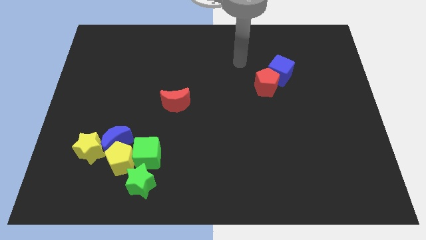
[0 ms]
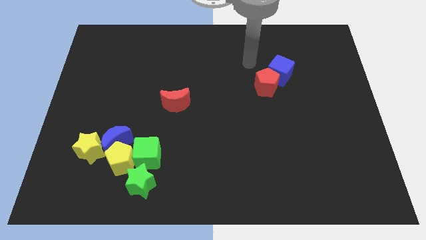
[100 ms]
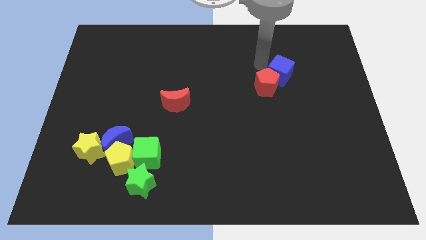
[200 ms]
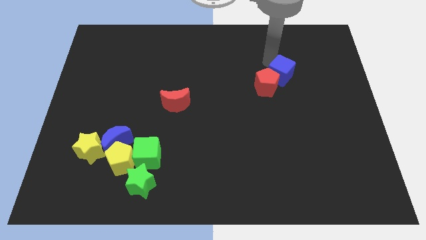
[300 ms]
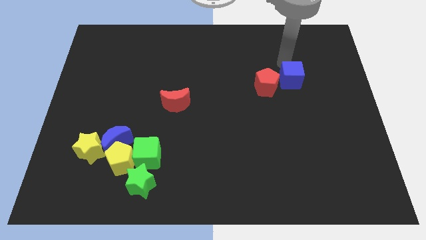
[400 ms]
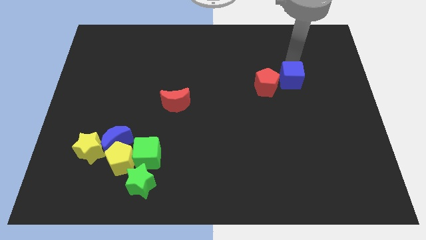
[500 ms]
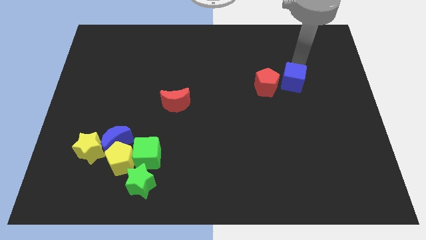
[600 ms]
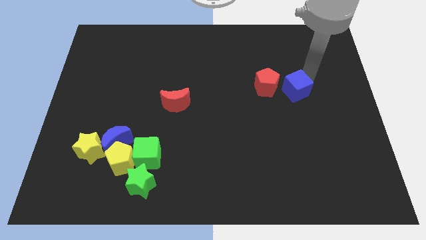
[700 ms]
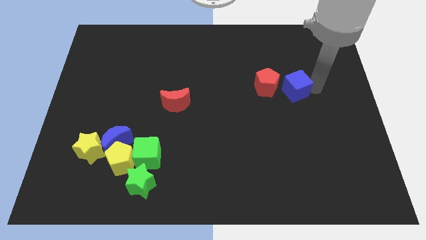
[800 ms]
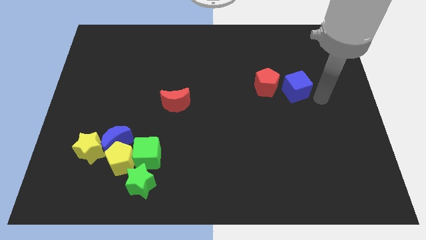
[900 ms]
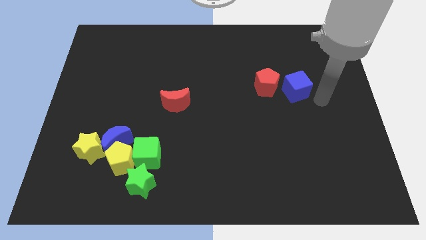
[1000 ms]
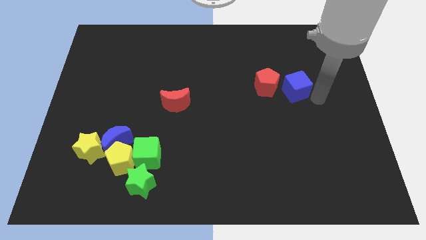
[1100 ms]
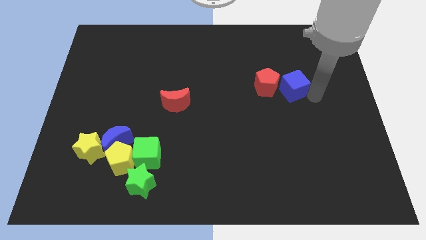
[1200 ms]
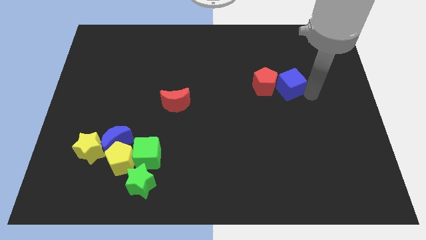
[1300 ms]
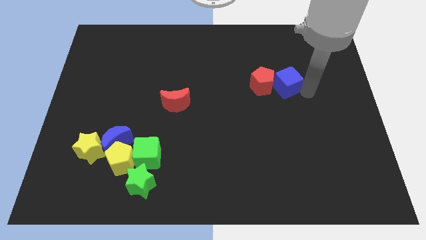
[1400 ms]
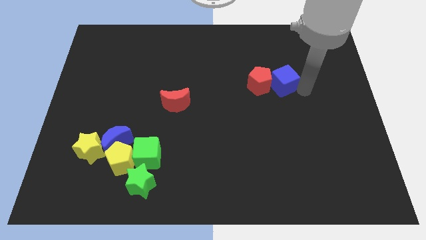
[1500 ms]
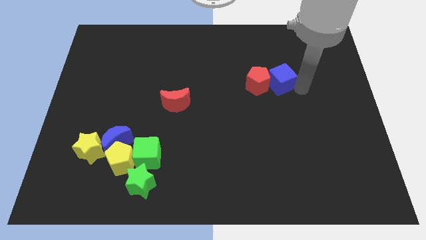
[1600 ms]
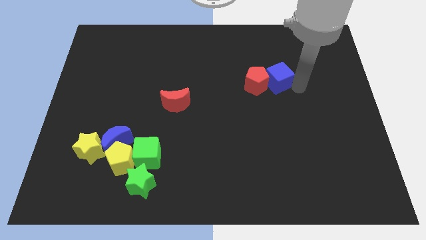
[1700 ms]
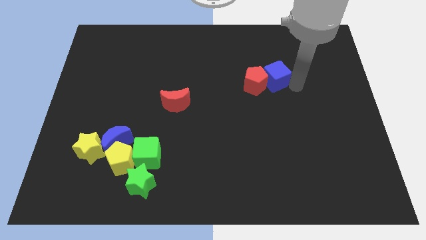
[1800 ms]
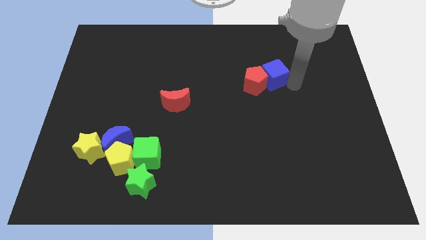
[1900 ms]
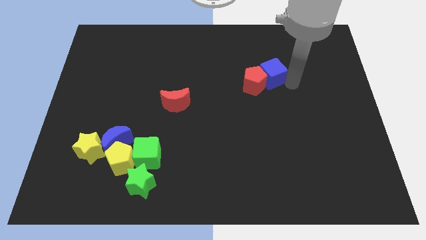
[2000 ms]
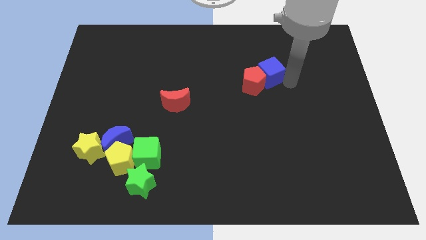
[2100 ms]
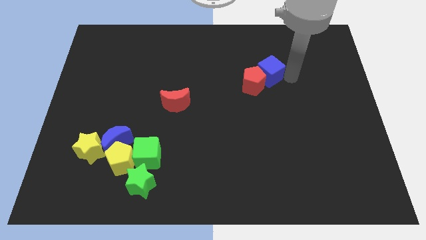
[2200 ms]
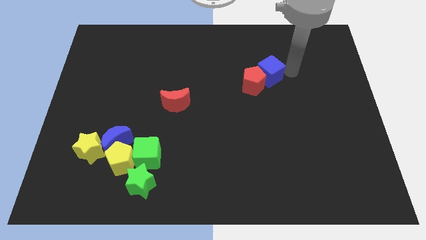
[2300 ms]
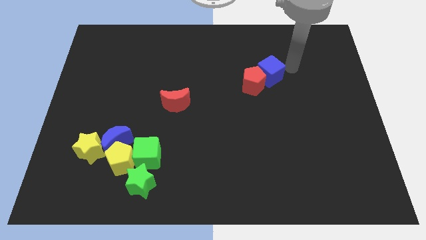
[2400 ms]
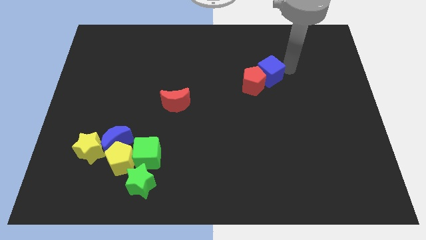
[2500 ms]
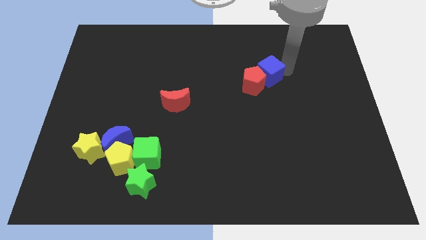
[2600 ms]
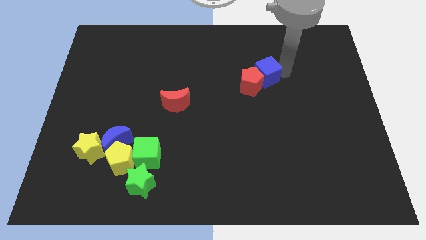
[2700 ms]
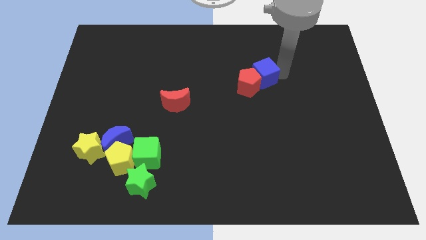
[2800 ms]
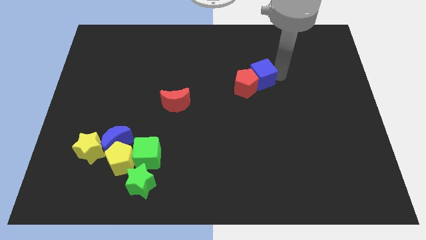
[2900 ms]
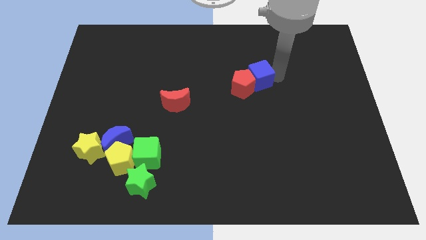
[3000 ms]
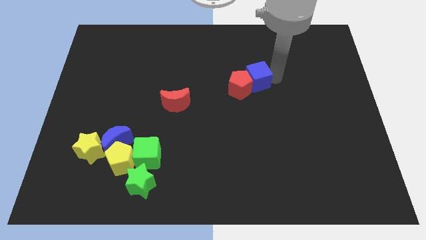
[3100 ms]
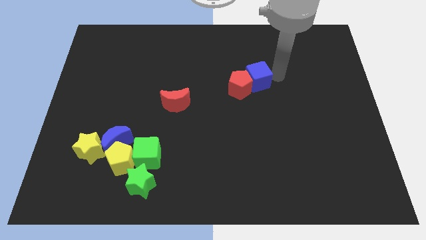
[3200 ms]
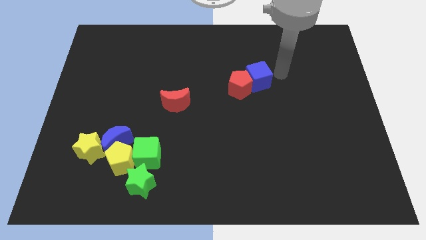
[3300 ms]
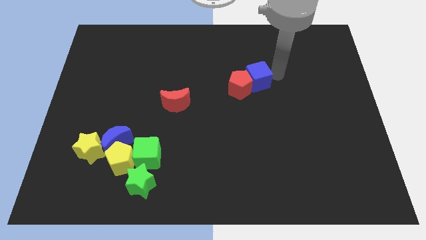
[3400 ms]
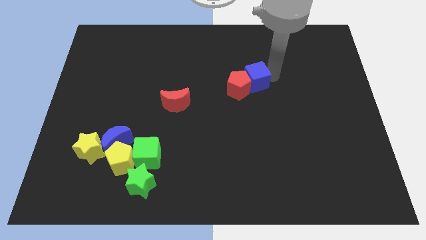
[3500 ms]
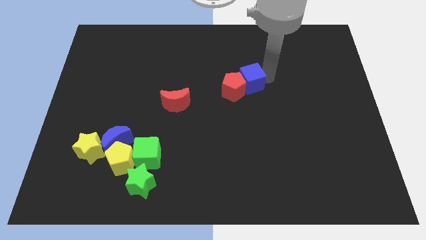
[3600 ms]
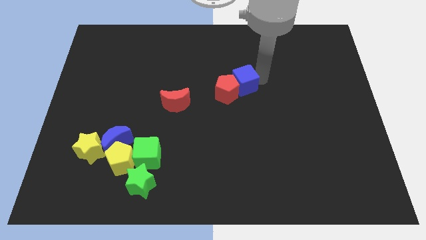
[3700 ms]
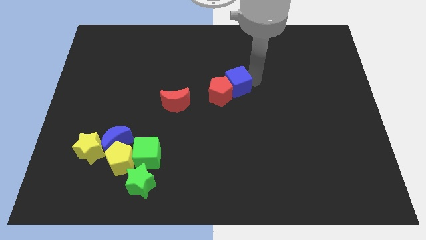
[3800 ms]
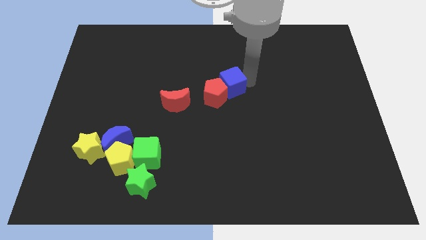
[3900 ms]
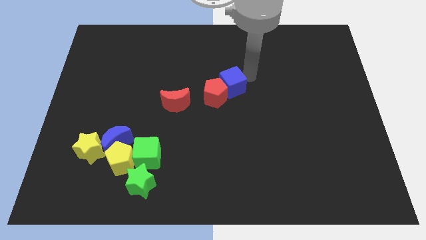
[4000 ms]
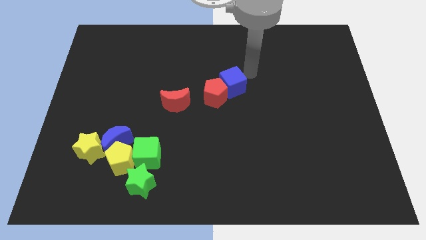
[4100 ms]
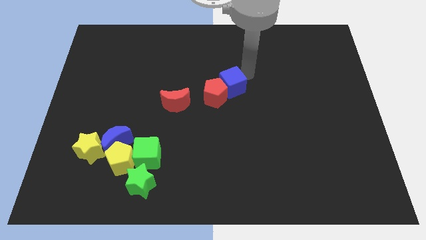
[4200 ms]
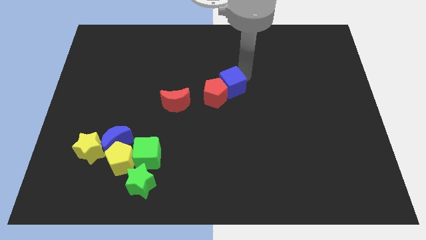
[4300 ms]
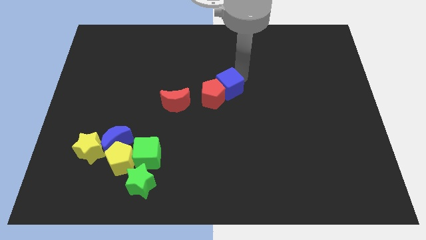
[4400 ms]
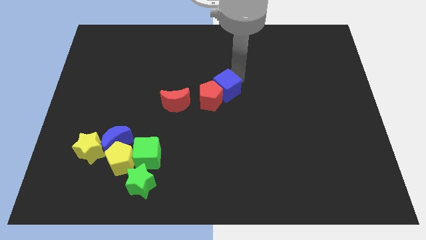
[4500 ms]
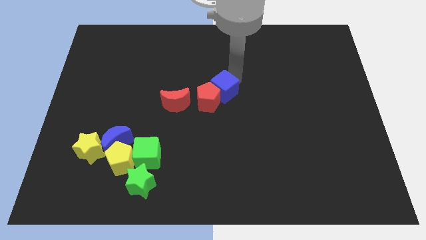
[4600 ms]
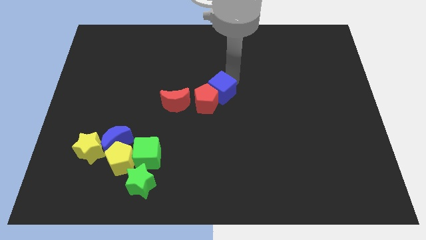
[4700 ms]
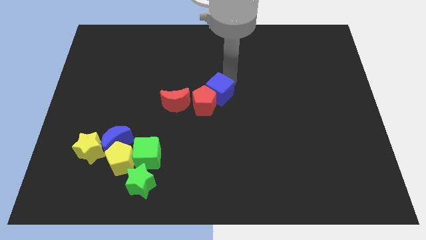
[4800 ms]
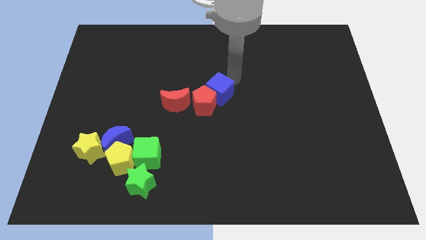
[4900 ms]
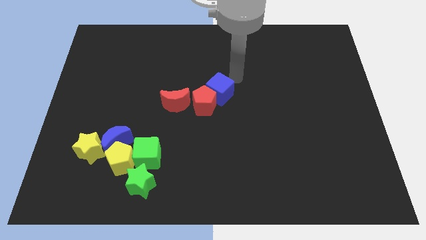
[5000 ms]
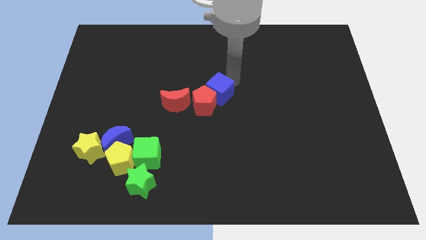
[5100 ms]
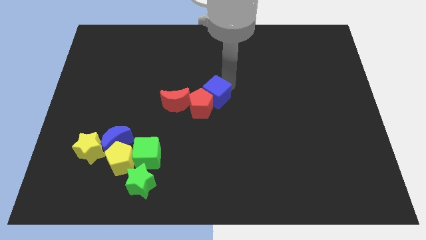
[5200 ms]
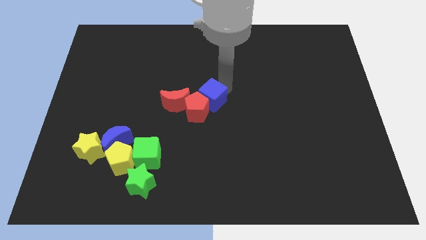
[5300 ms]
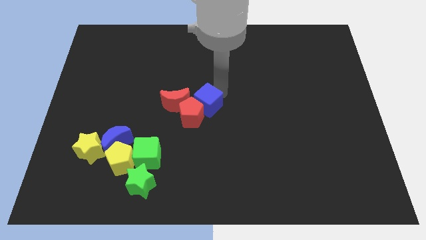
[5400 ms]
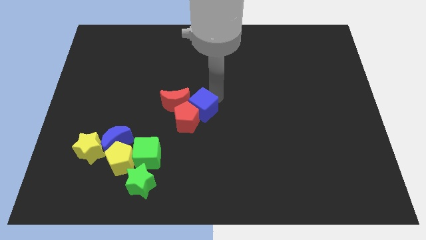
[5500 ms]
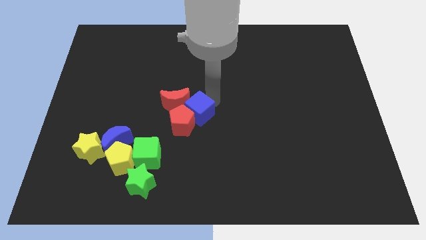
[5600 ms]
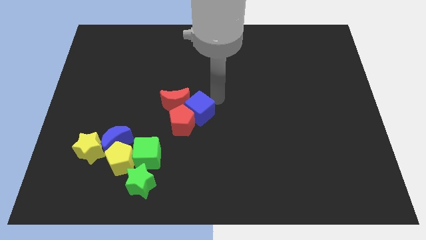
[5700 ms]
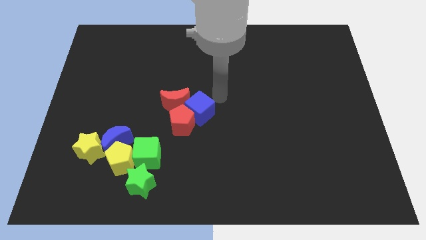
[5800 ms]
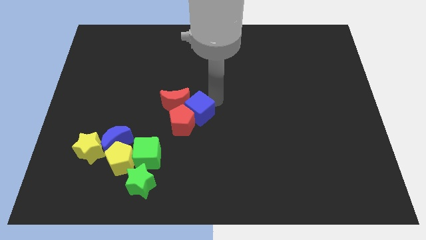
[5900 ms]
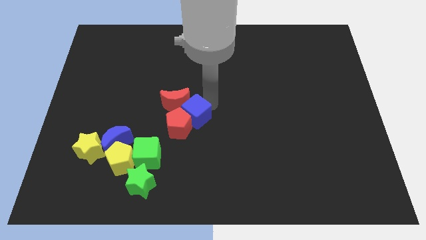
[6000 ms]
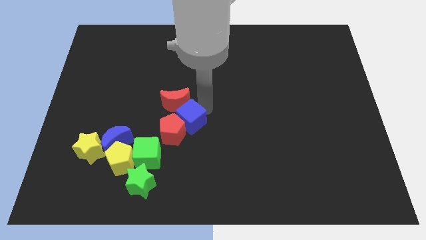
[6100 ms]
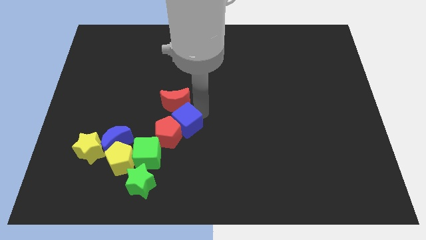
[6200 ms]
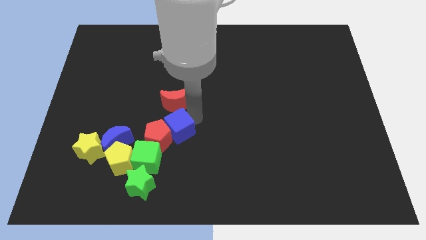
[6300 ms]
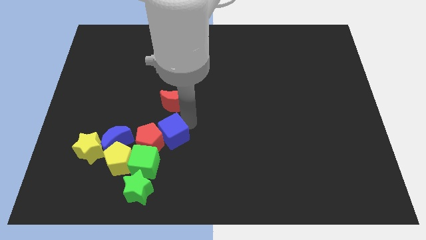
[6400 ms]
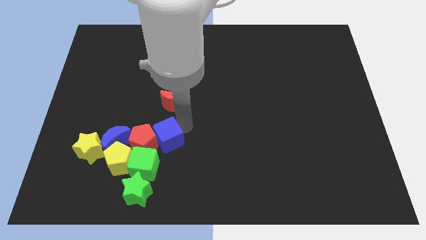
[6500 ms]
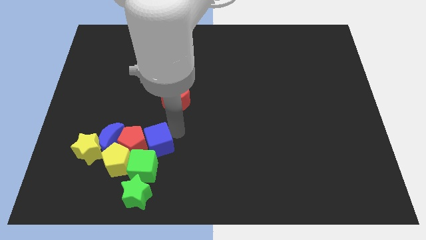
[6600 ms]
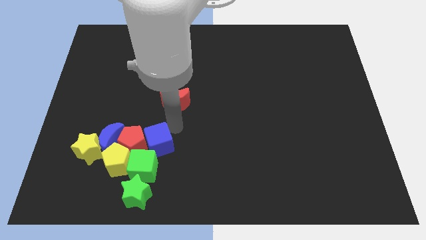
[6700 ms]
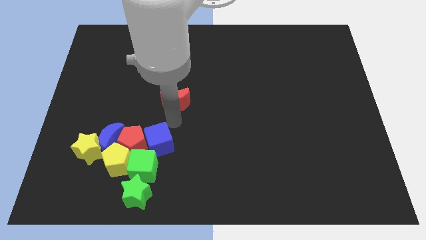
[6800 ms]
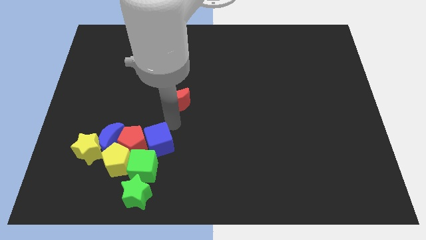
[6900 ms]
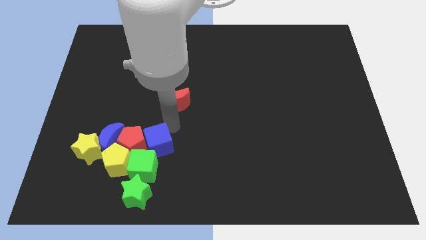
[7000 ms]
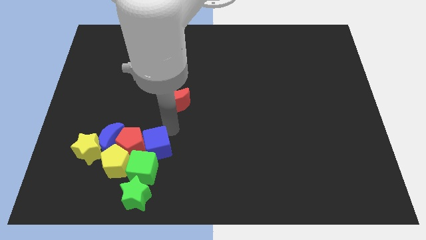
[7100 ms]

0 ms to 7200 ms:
slide the blue cube towards the green cube
